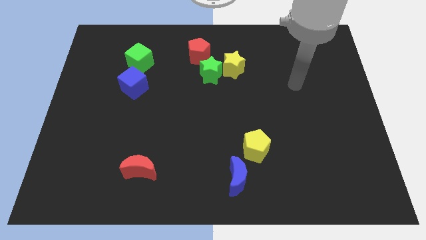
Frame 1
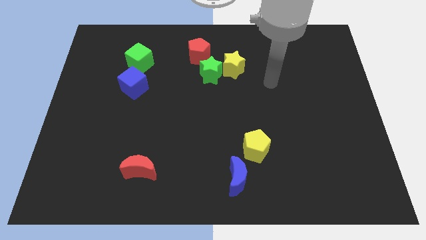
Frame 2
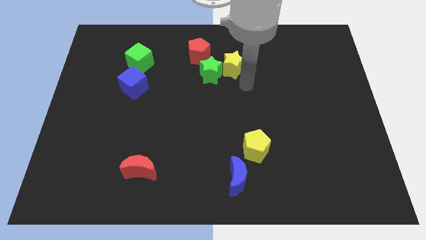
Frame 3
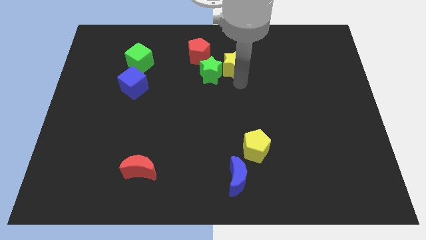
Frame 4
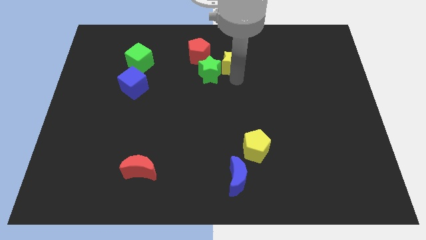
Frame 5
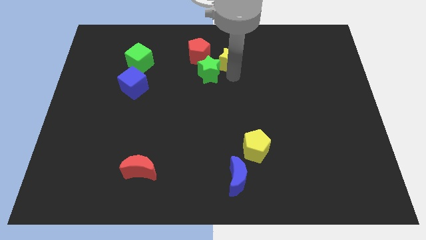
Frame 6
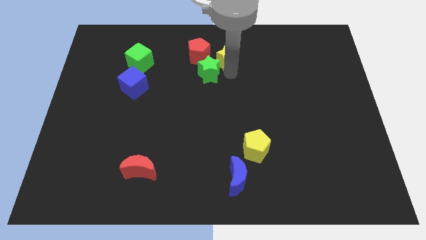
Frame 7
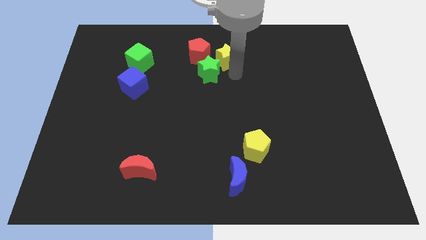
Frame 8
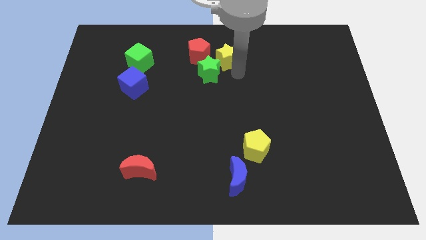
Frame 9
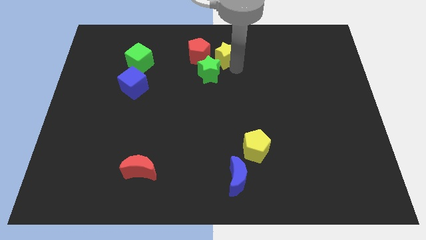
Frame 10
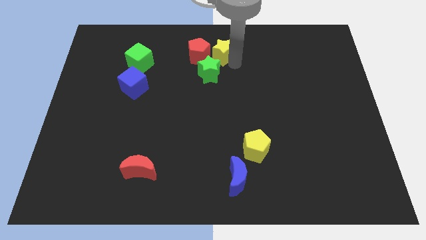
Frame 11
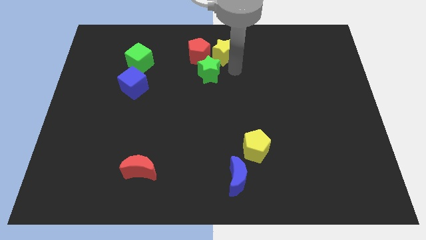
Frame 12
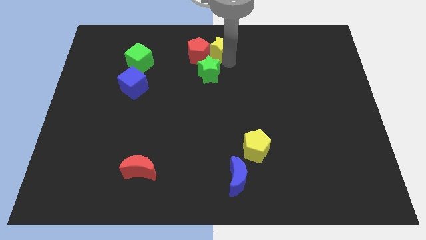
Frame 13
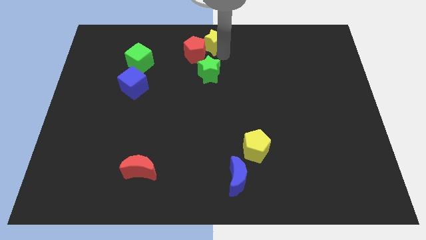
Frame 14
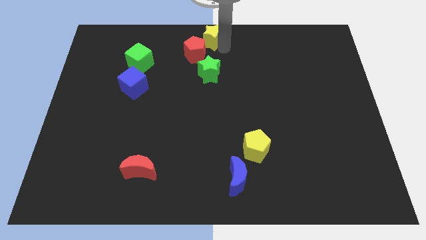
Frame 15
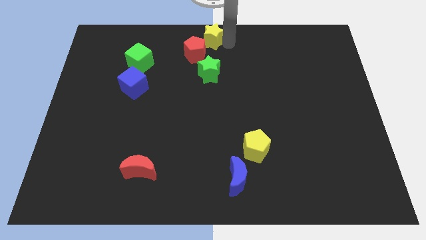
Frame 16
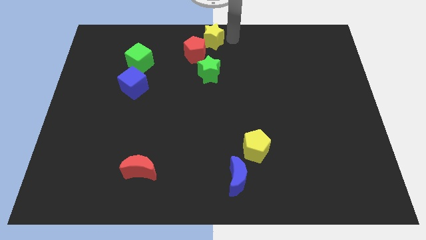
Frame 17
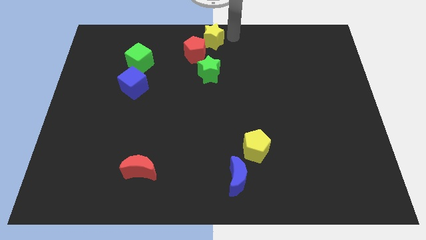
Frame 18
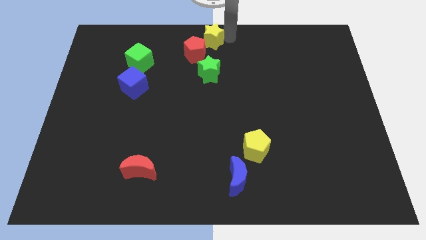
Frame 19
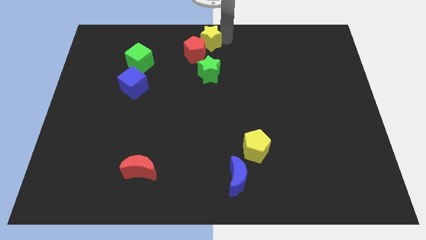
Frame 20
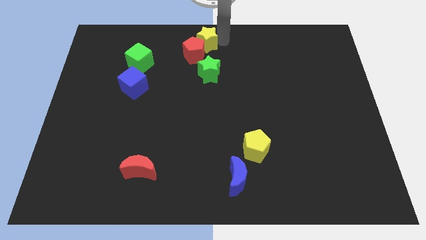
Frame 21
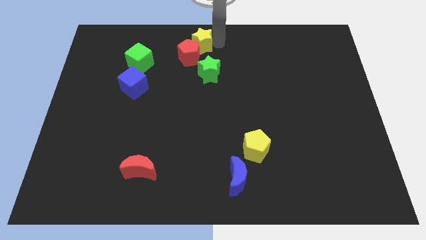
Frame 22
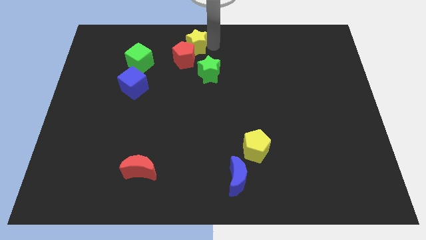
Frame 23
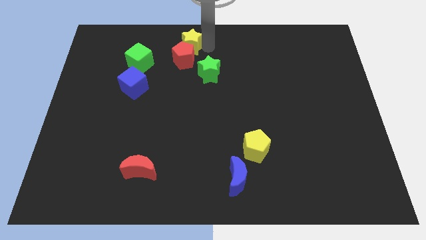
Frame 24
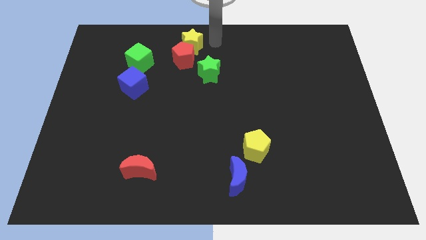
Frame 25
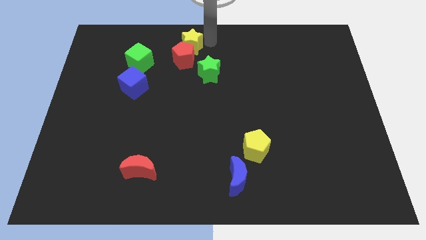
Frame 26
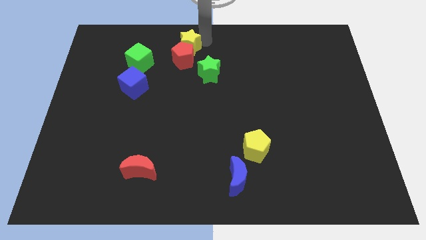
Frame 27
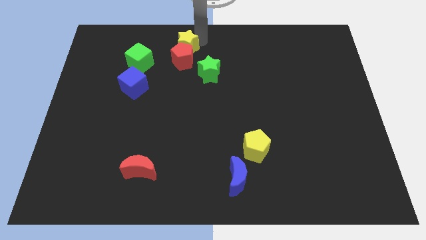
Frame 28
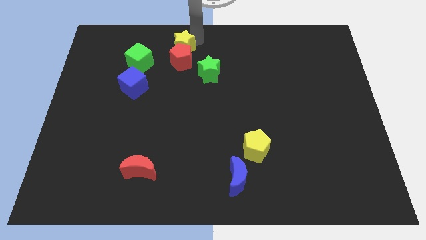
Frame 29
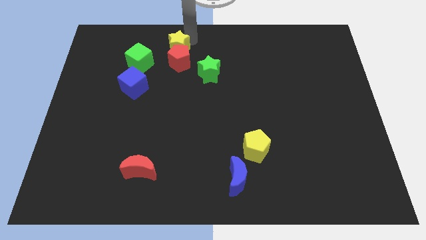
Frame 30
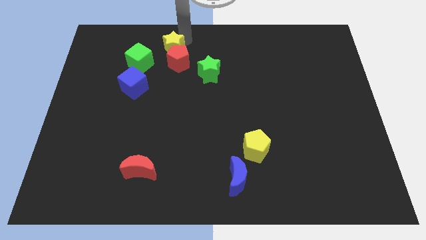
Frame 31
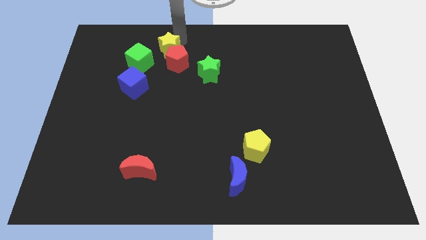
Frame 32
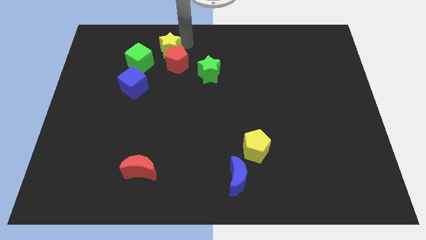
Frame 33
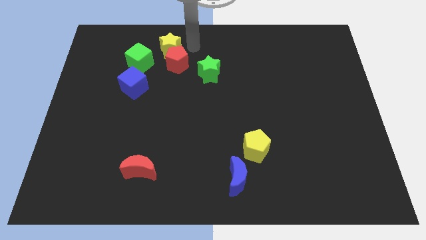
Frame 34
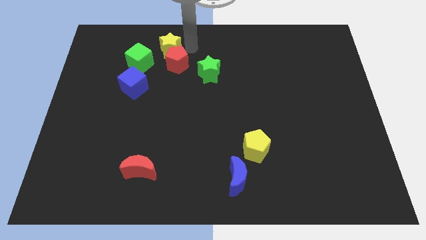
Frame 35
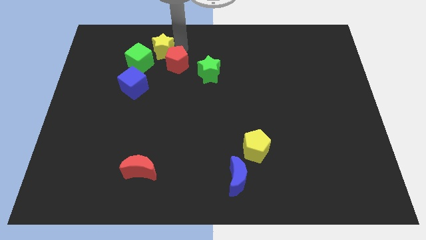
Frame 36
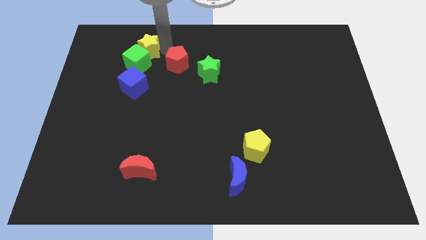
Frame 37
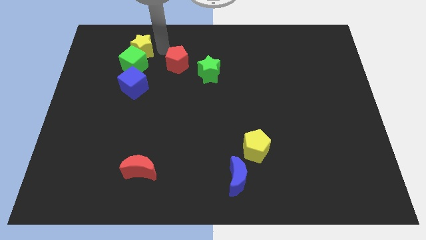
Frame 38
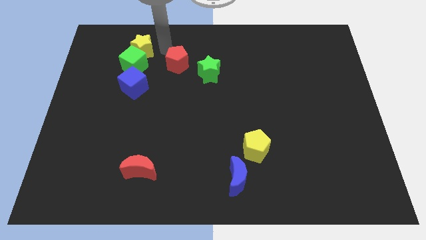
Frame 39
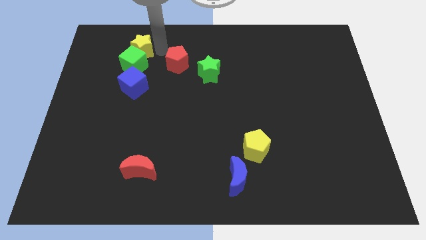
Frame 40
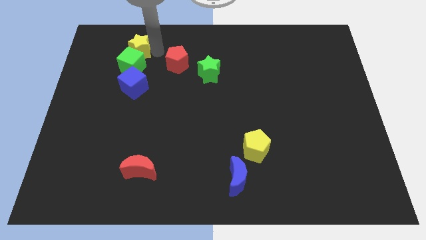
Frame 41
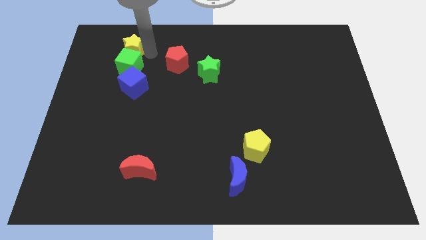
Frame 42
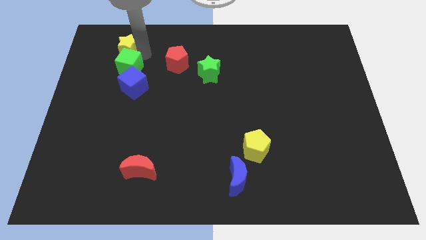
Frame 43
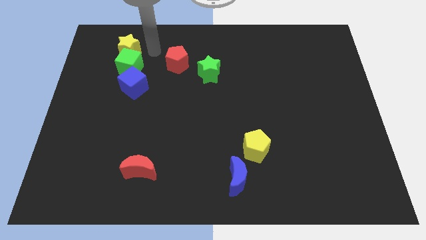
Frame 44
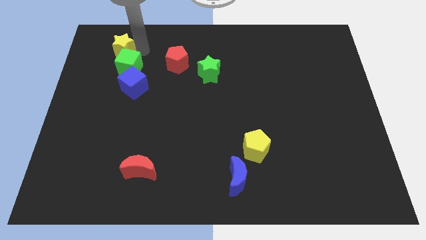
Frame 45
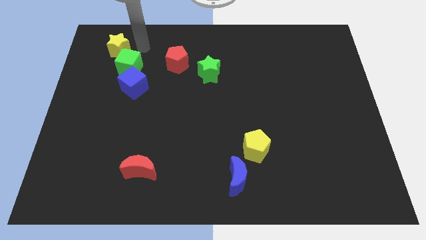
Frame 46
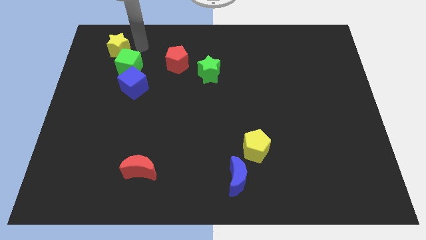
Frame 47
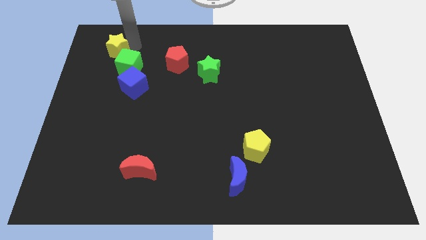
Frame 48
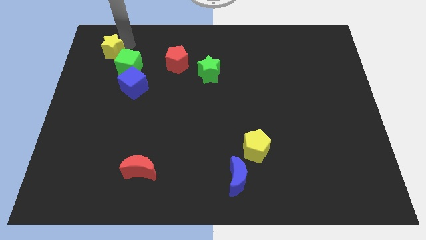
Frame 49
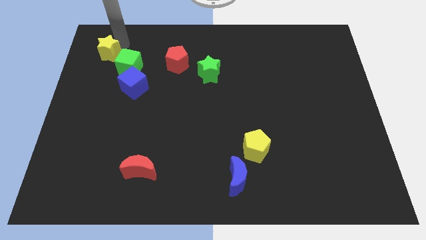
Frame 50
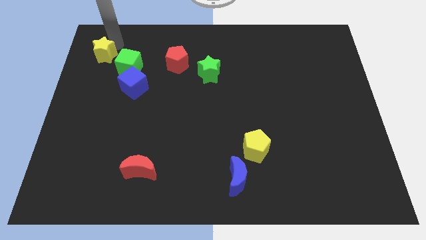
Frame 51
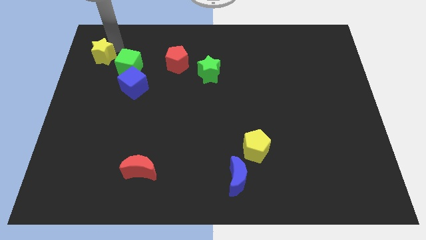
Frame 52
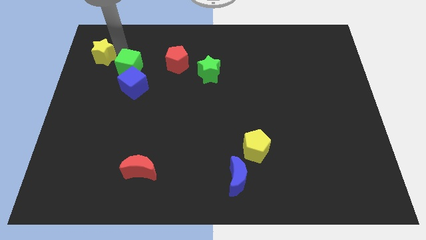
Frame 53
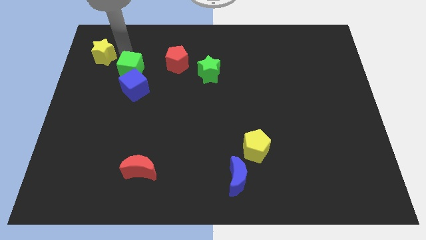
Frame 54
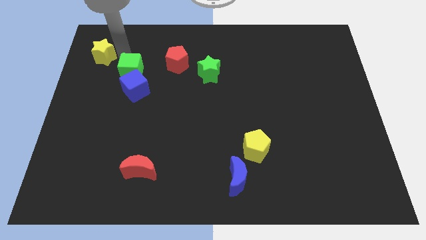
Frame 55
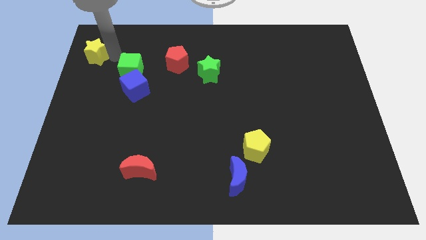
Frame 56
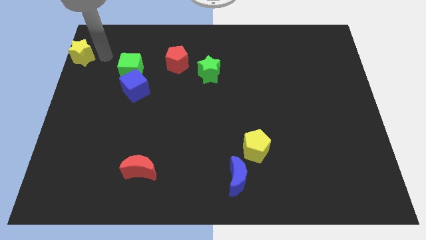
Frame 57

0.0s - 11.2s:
slide the yellow star to the top left
